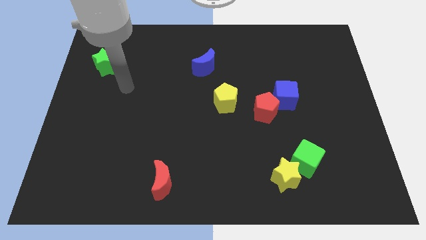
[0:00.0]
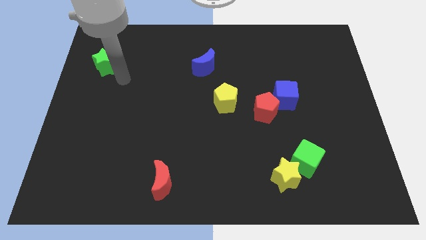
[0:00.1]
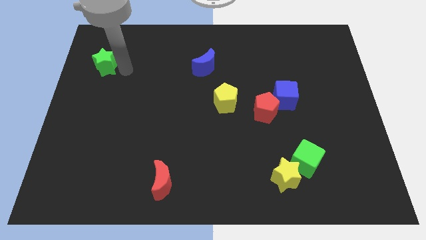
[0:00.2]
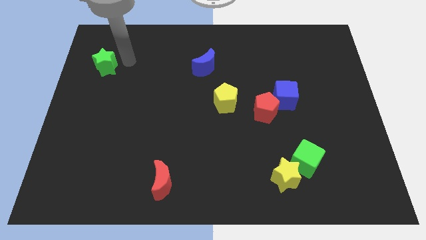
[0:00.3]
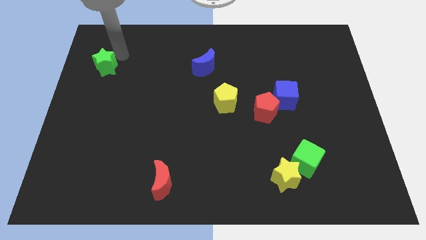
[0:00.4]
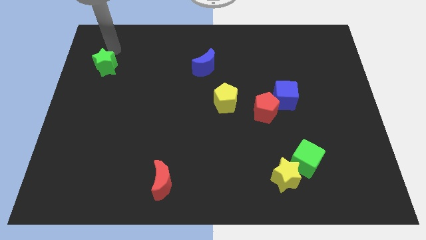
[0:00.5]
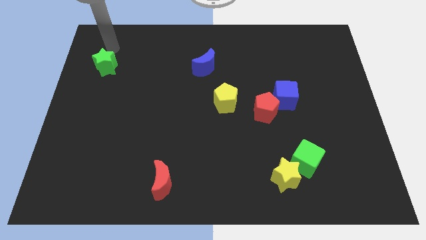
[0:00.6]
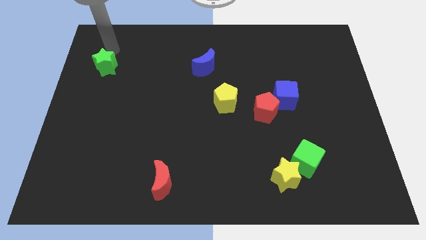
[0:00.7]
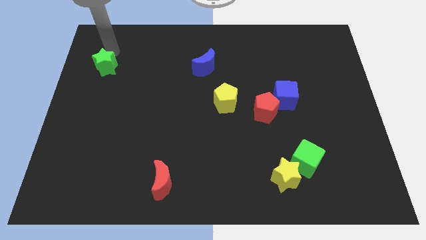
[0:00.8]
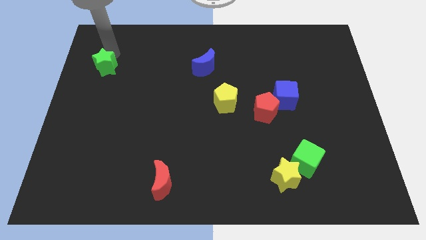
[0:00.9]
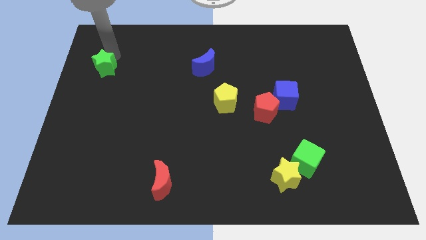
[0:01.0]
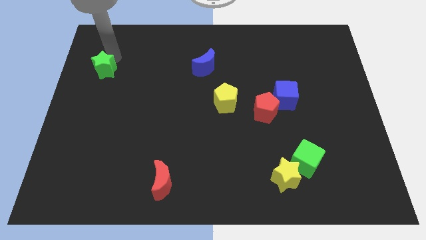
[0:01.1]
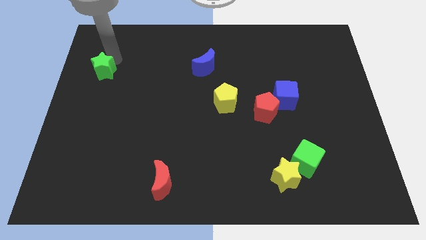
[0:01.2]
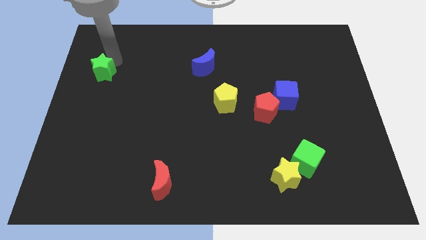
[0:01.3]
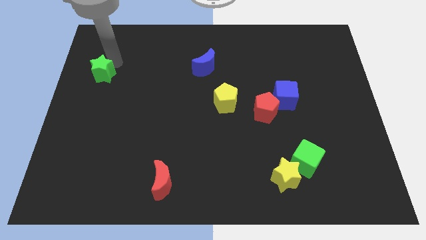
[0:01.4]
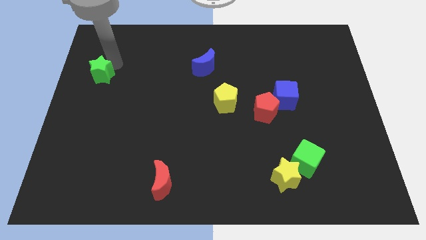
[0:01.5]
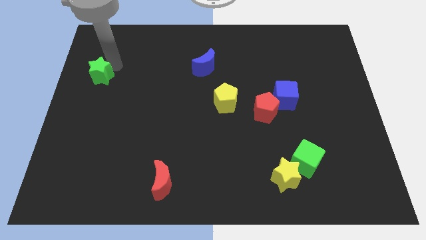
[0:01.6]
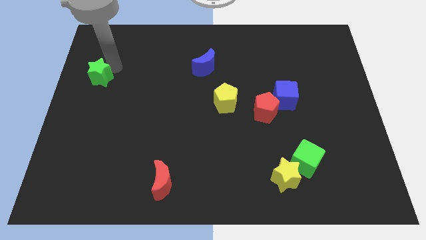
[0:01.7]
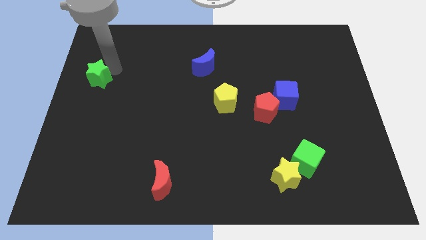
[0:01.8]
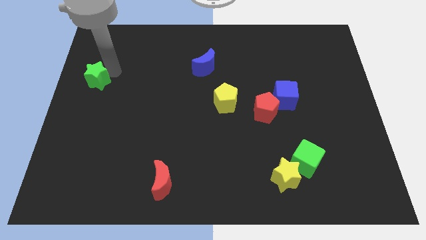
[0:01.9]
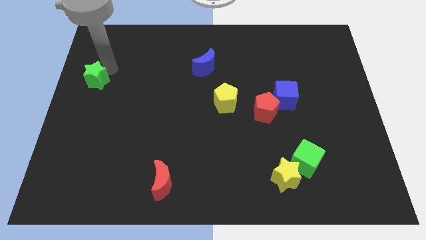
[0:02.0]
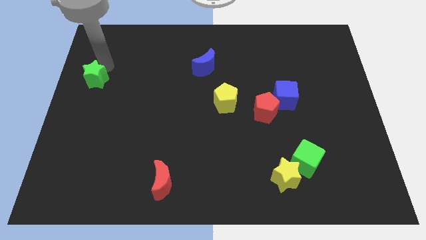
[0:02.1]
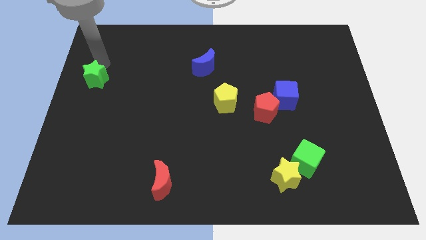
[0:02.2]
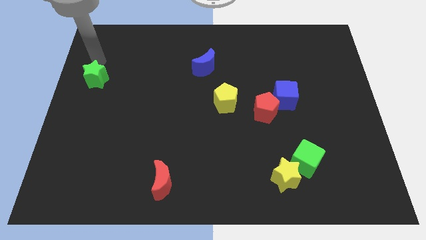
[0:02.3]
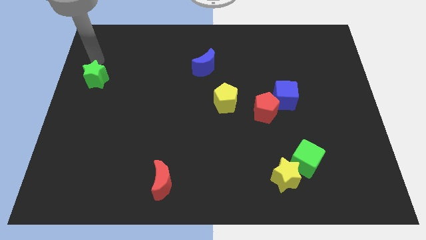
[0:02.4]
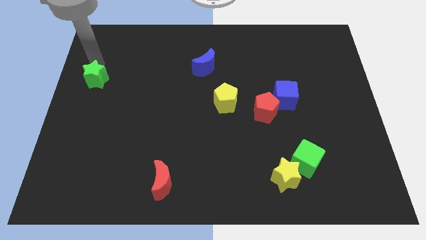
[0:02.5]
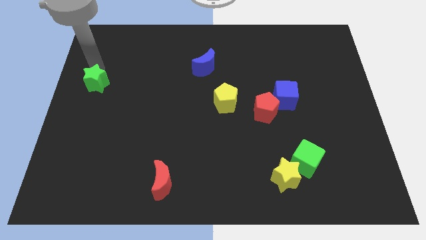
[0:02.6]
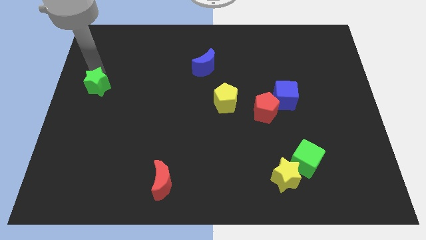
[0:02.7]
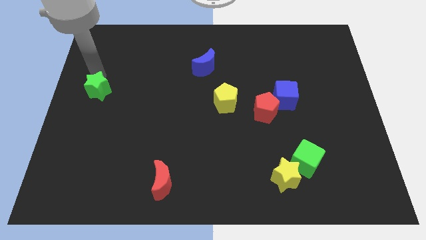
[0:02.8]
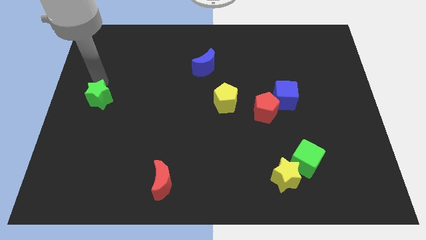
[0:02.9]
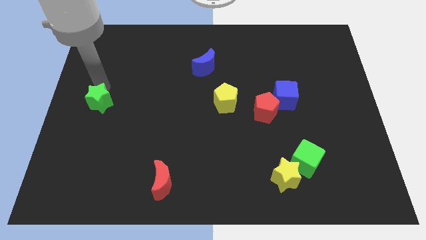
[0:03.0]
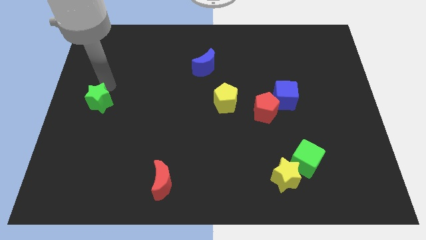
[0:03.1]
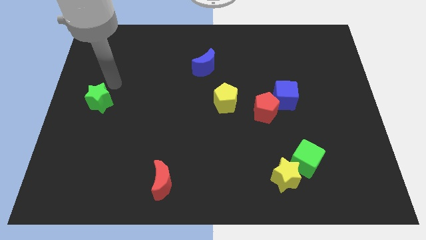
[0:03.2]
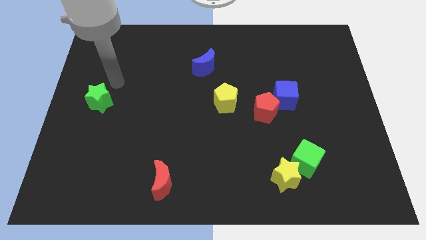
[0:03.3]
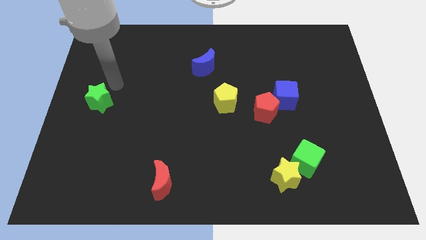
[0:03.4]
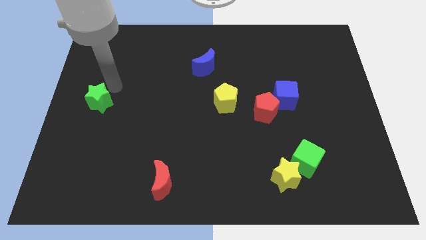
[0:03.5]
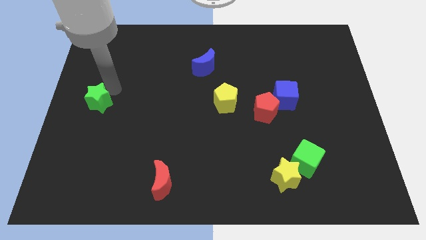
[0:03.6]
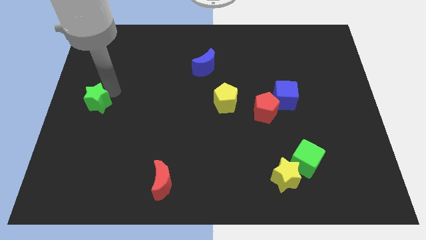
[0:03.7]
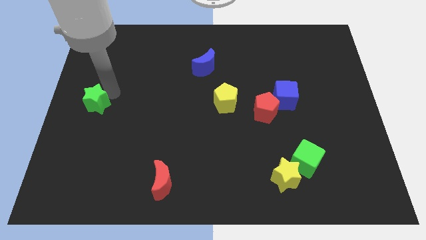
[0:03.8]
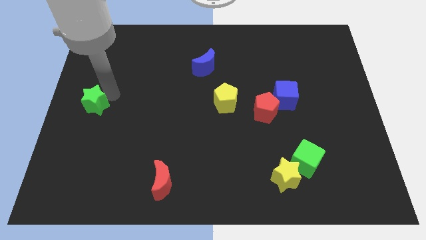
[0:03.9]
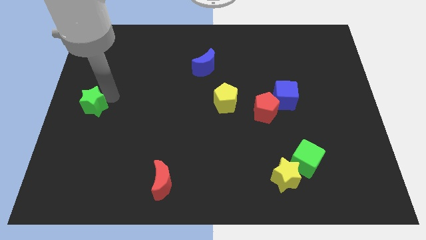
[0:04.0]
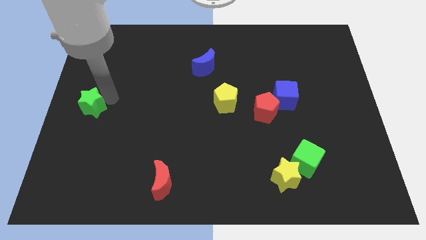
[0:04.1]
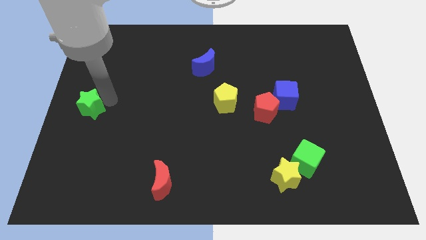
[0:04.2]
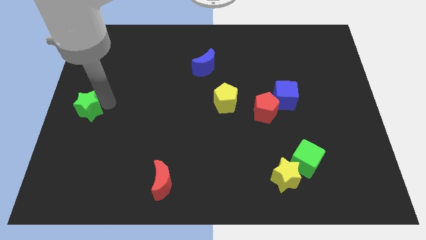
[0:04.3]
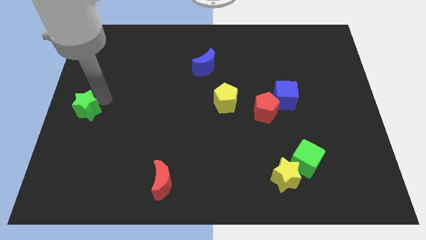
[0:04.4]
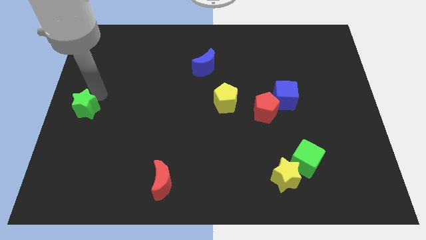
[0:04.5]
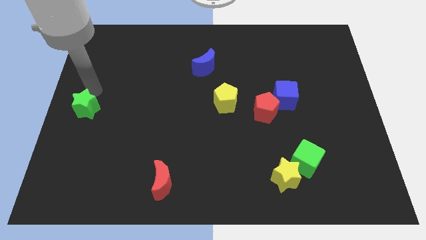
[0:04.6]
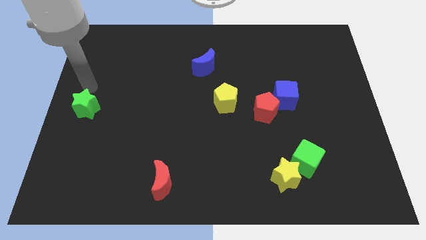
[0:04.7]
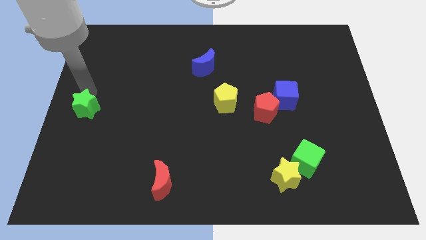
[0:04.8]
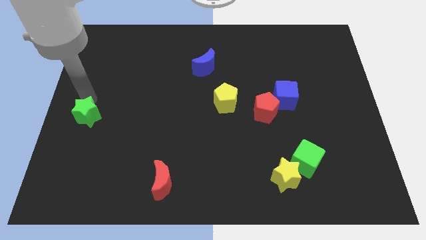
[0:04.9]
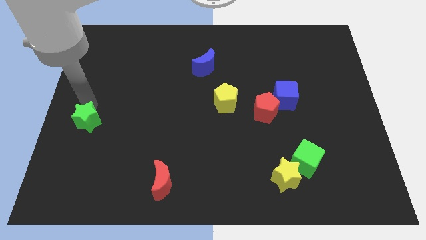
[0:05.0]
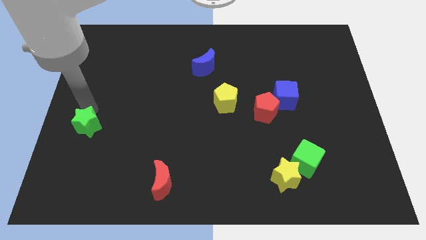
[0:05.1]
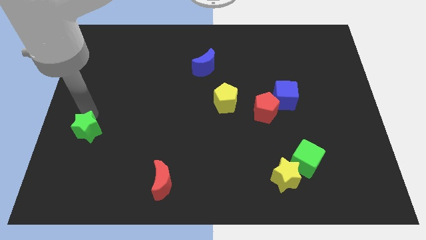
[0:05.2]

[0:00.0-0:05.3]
move the green star down

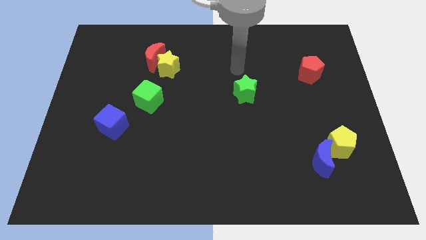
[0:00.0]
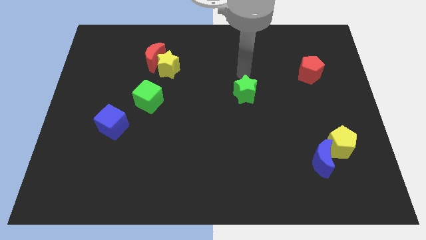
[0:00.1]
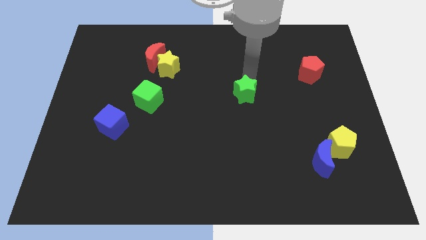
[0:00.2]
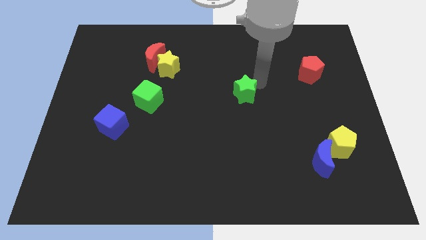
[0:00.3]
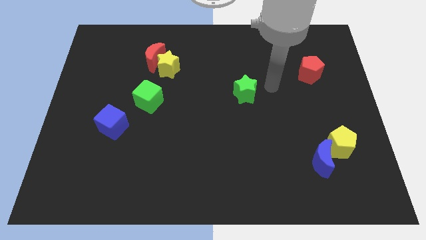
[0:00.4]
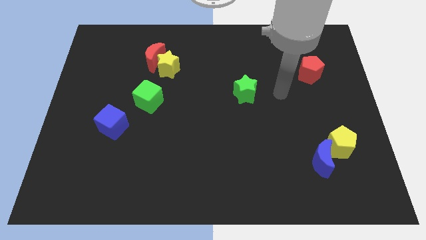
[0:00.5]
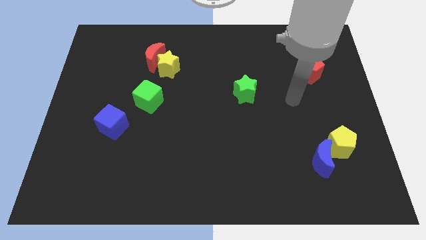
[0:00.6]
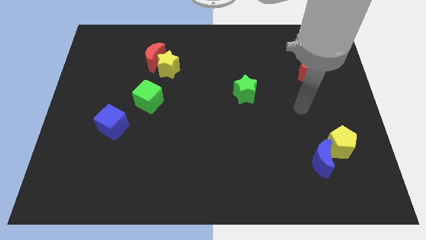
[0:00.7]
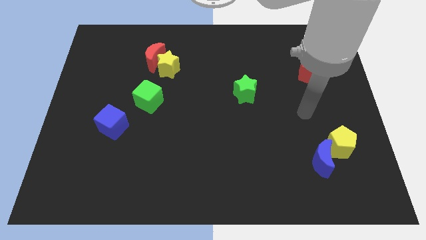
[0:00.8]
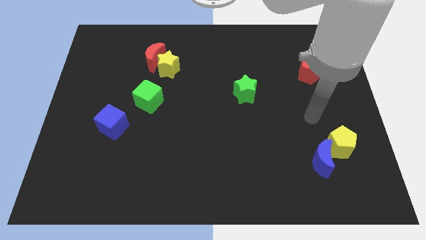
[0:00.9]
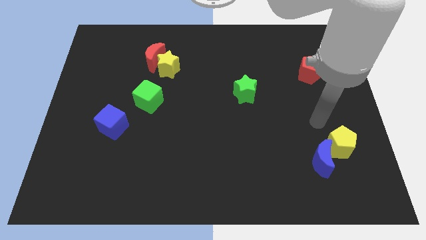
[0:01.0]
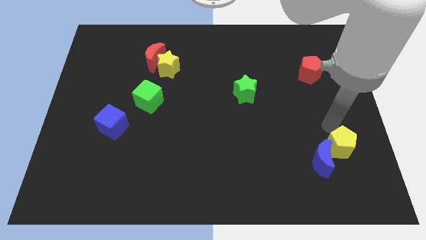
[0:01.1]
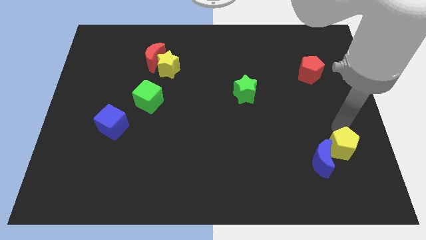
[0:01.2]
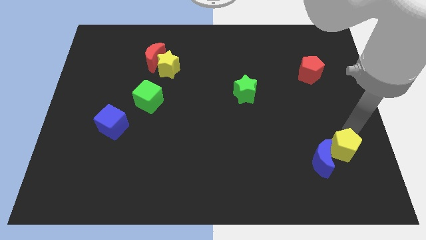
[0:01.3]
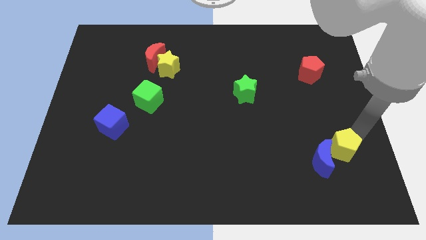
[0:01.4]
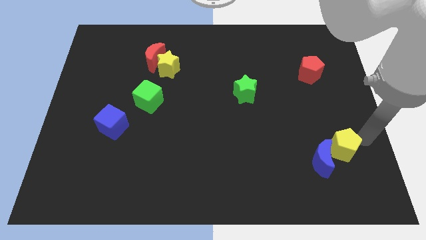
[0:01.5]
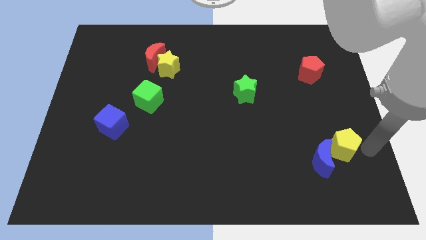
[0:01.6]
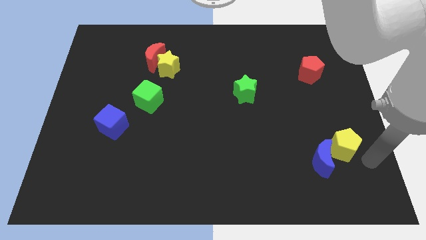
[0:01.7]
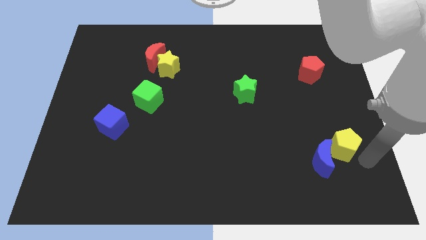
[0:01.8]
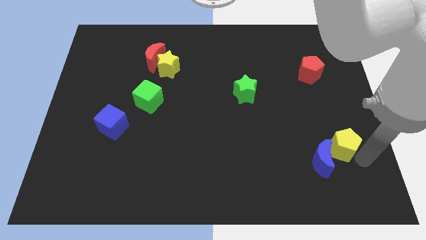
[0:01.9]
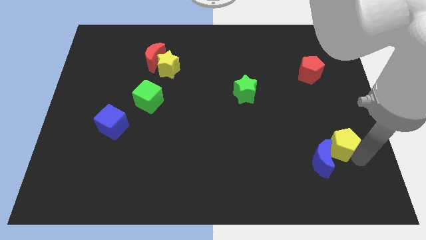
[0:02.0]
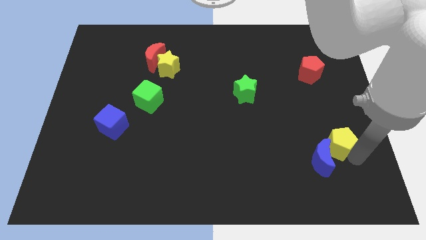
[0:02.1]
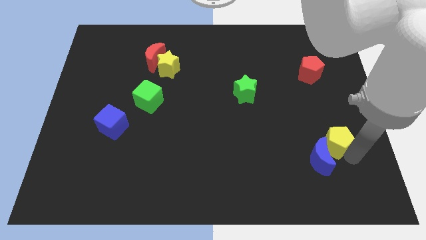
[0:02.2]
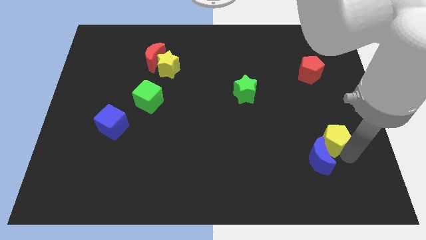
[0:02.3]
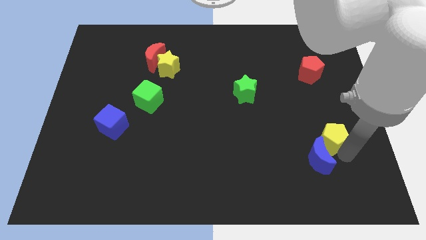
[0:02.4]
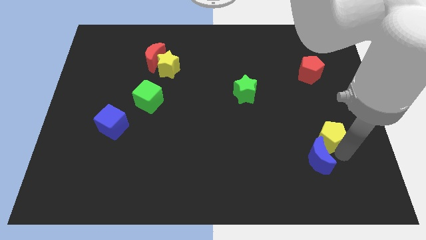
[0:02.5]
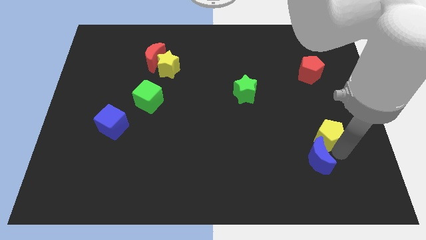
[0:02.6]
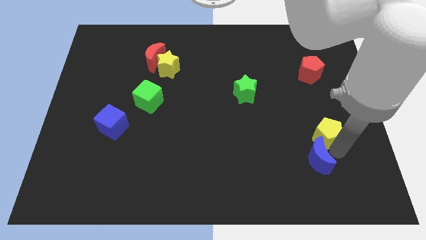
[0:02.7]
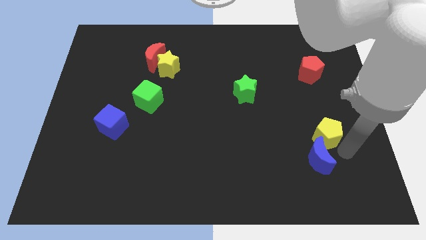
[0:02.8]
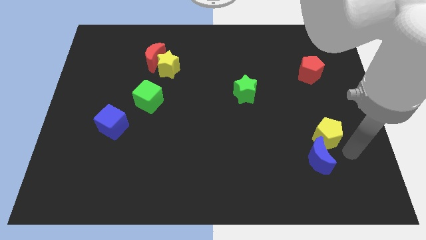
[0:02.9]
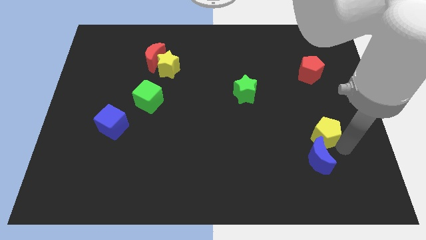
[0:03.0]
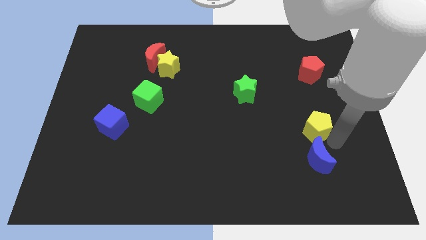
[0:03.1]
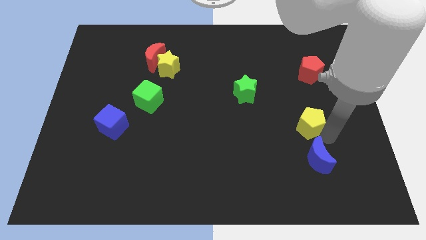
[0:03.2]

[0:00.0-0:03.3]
move the yellow pentagon slightly diagonally upwards and left
